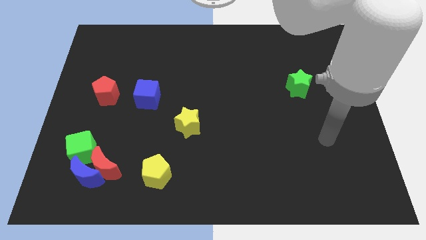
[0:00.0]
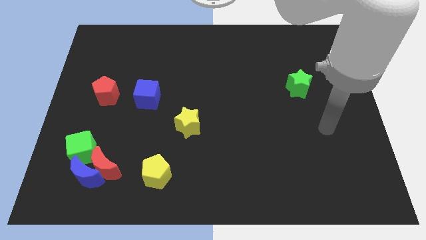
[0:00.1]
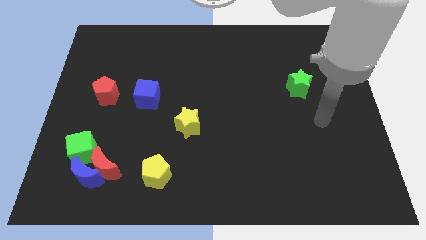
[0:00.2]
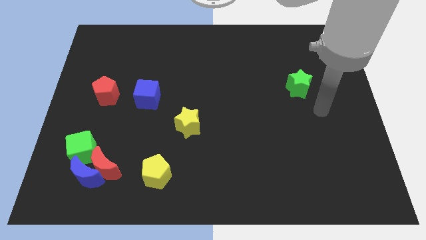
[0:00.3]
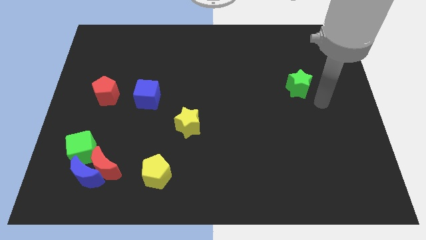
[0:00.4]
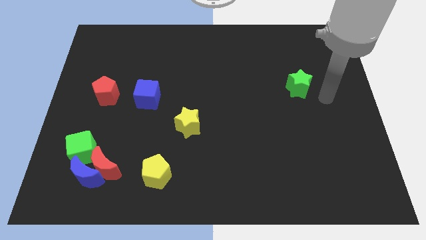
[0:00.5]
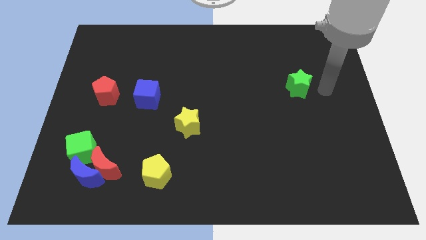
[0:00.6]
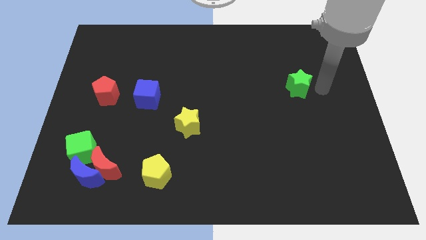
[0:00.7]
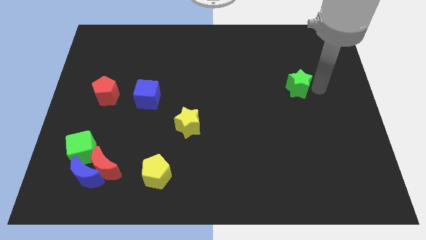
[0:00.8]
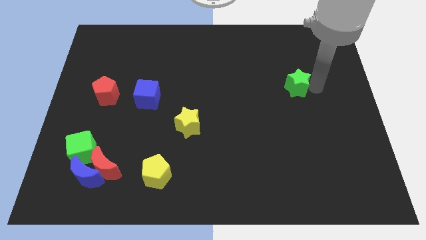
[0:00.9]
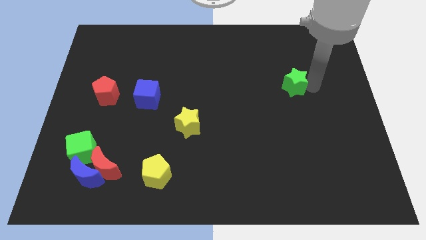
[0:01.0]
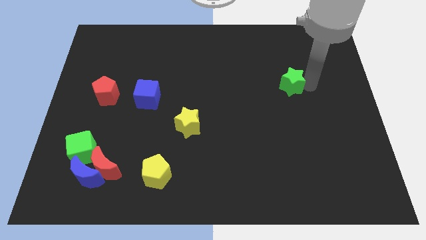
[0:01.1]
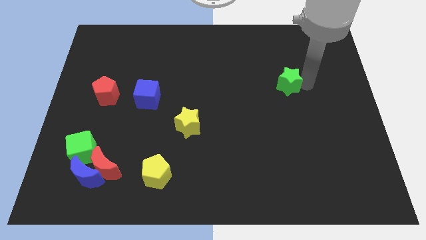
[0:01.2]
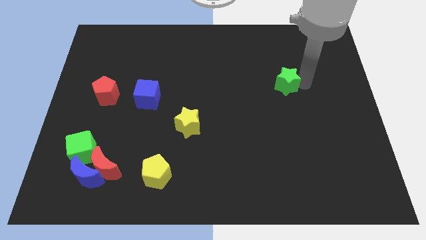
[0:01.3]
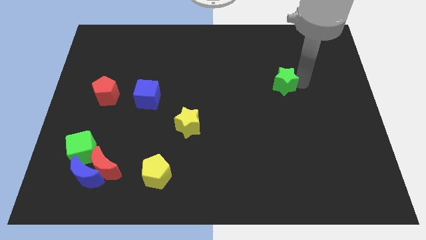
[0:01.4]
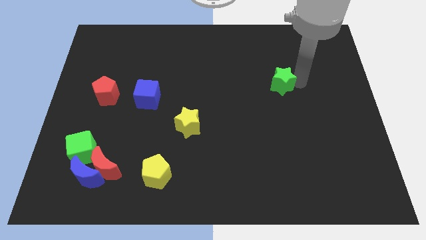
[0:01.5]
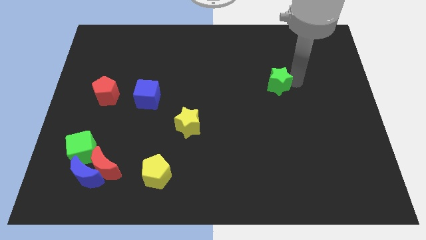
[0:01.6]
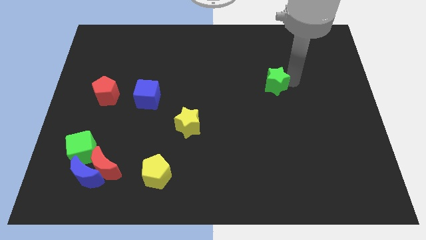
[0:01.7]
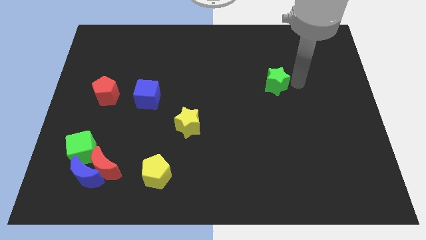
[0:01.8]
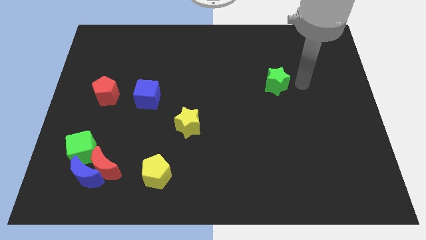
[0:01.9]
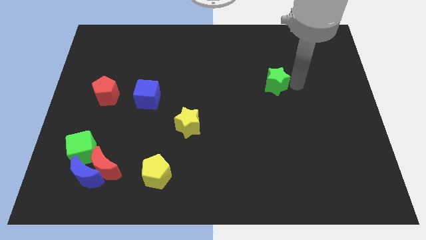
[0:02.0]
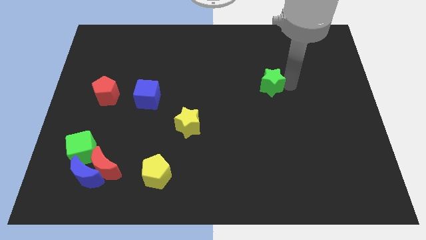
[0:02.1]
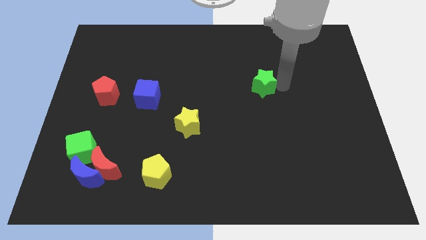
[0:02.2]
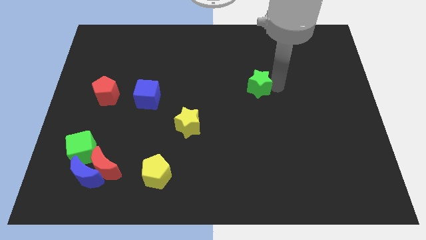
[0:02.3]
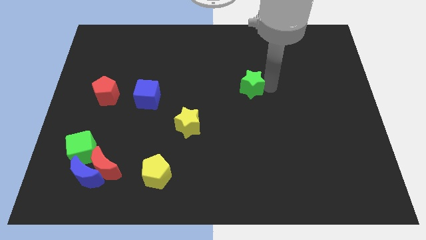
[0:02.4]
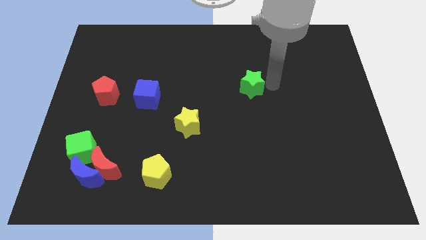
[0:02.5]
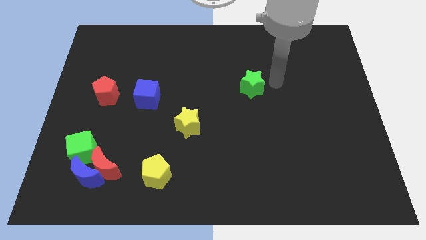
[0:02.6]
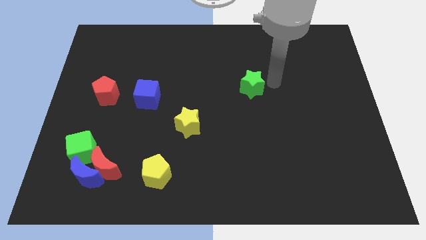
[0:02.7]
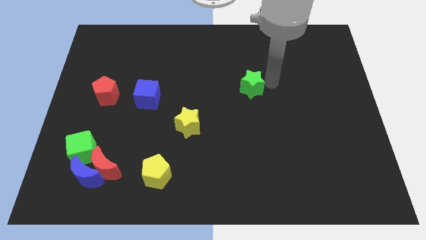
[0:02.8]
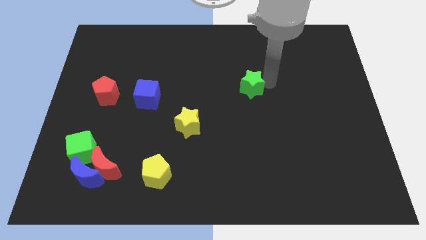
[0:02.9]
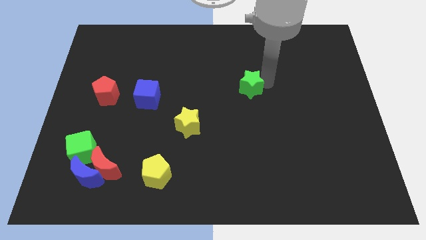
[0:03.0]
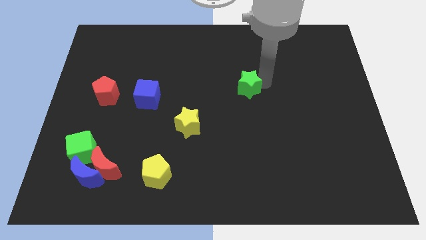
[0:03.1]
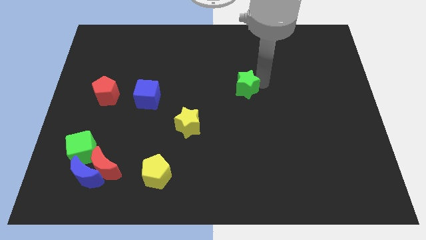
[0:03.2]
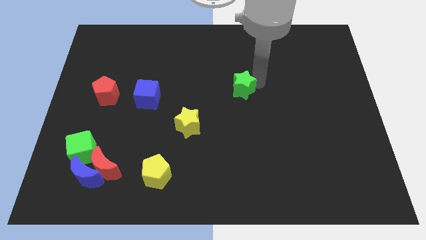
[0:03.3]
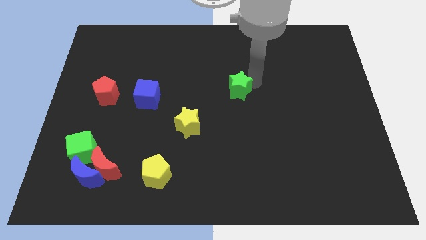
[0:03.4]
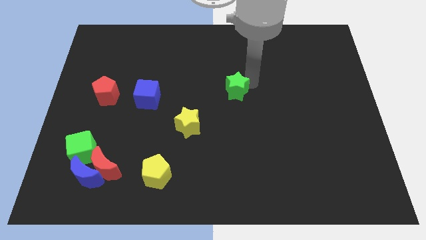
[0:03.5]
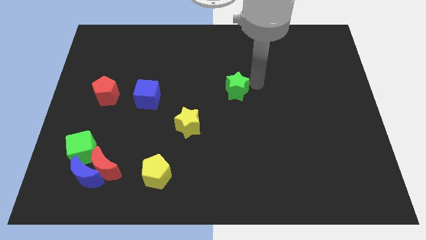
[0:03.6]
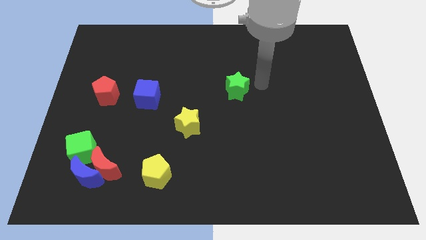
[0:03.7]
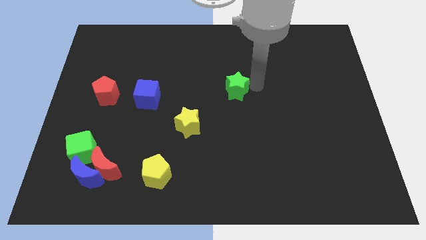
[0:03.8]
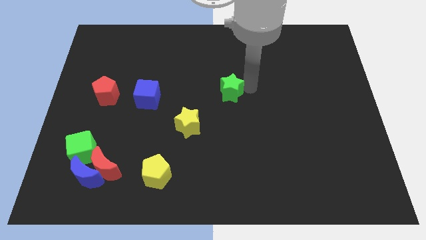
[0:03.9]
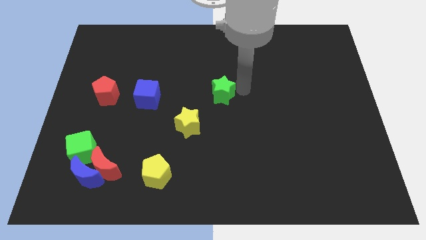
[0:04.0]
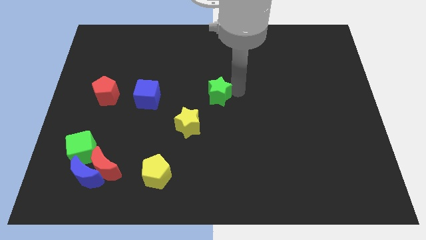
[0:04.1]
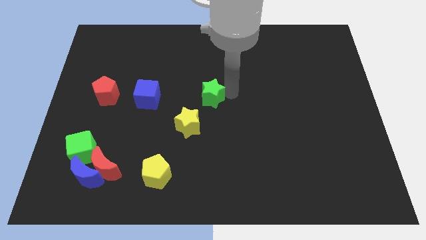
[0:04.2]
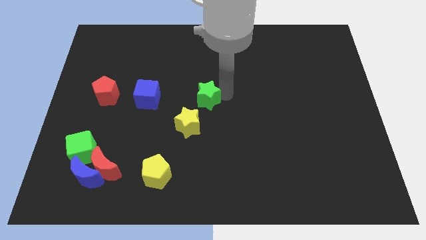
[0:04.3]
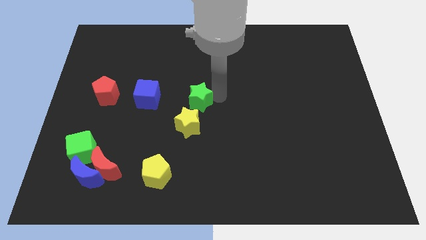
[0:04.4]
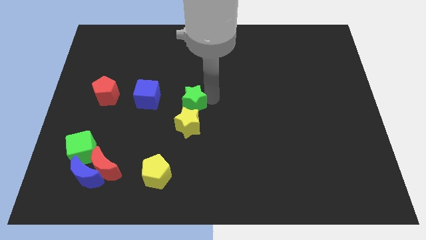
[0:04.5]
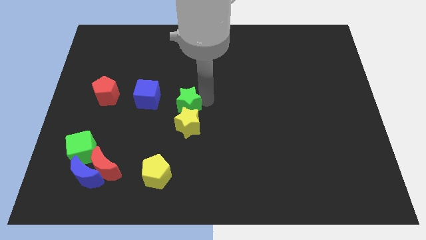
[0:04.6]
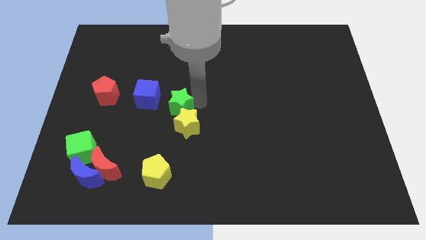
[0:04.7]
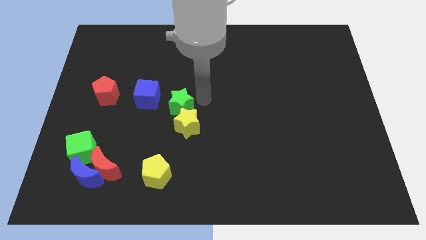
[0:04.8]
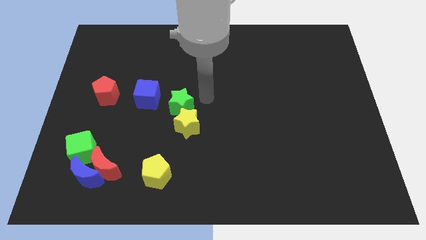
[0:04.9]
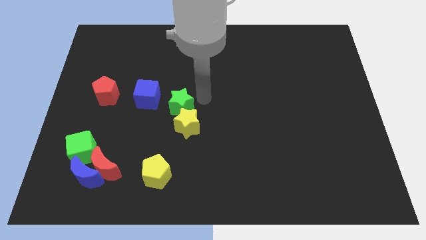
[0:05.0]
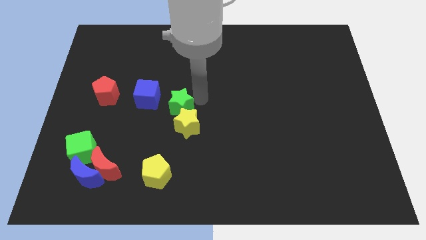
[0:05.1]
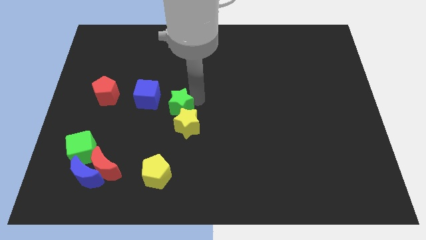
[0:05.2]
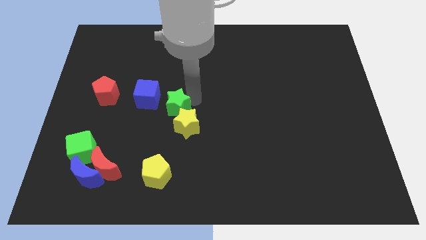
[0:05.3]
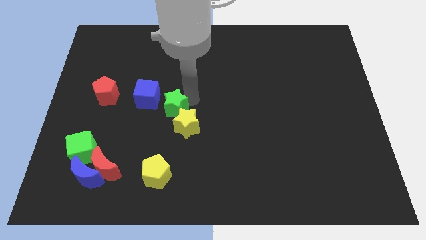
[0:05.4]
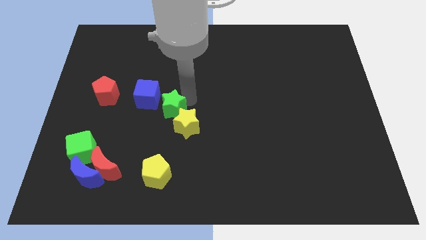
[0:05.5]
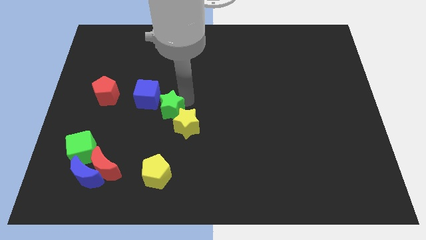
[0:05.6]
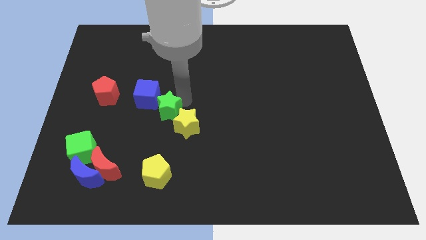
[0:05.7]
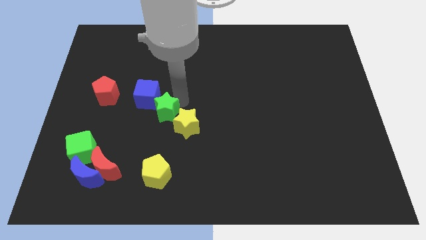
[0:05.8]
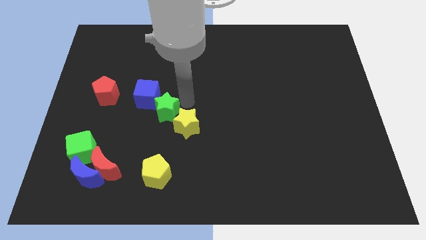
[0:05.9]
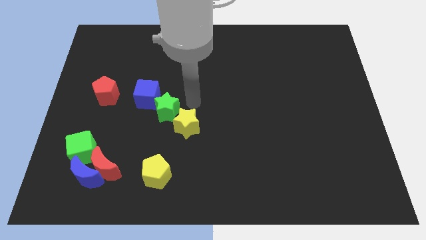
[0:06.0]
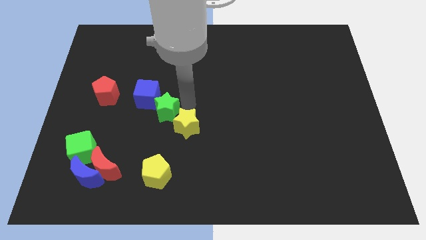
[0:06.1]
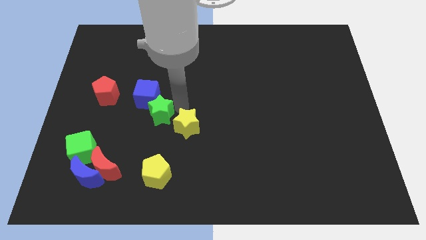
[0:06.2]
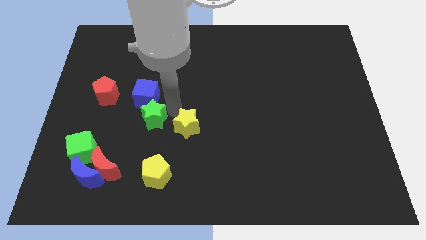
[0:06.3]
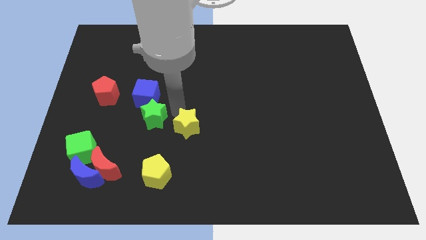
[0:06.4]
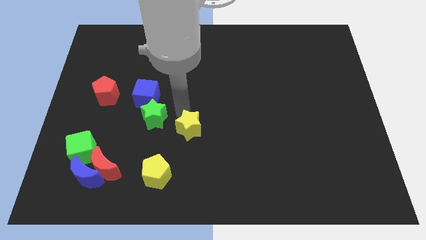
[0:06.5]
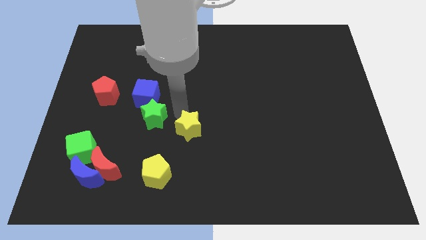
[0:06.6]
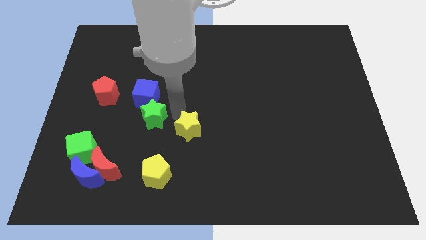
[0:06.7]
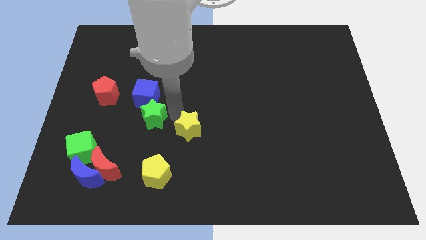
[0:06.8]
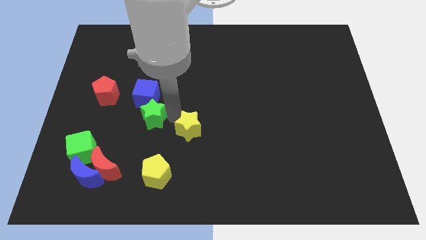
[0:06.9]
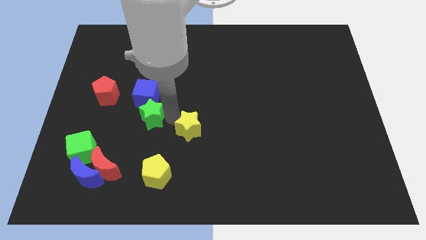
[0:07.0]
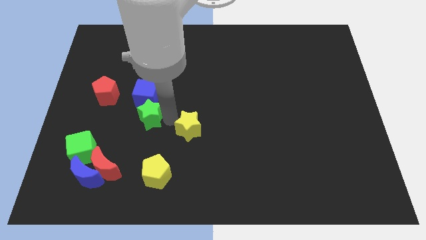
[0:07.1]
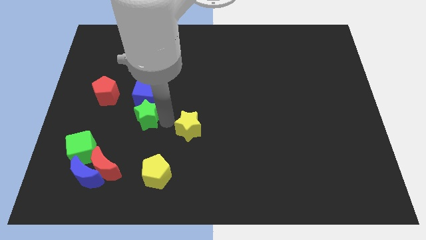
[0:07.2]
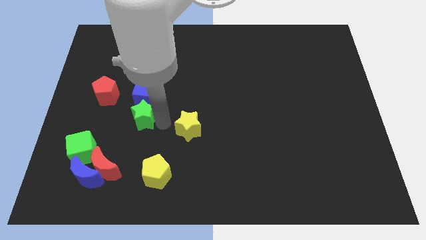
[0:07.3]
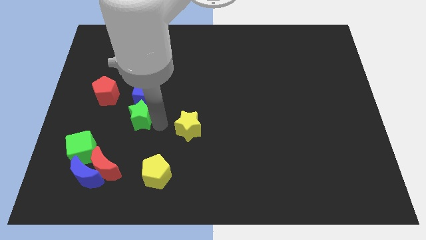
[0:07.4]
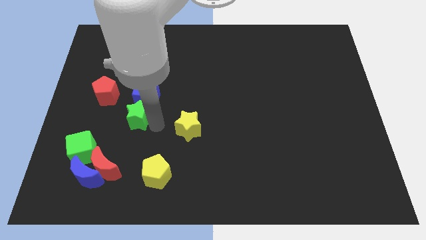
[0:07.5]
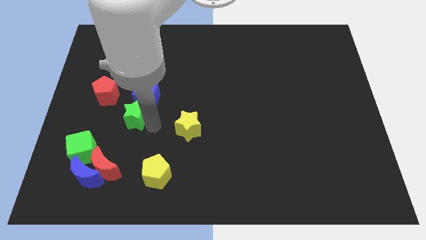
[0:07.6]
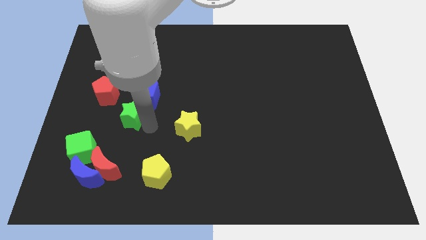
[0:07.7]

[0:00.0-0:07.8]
move the green star above the red moon

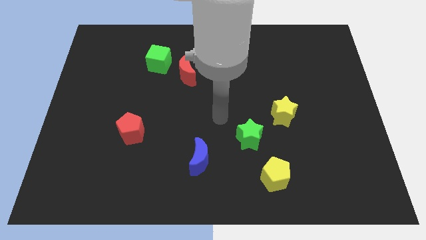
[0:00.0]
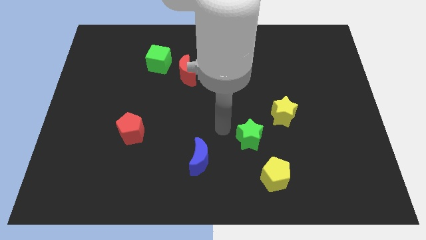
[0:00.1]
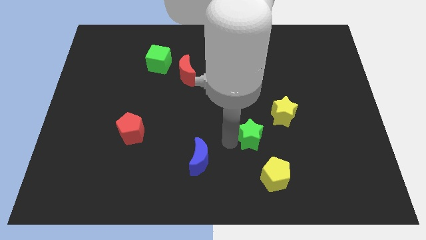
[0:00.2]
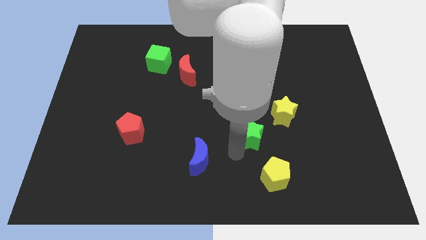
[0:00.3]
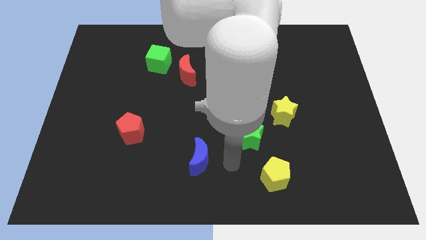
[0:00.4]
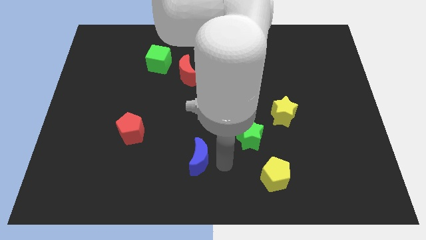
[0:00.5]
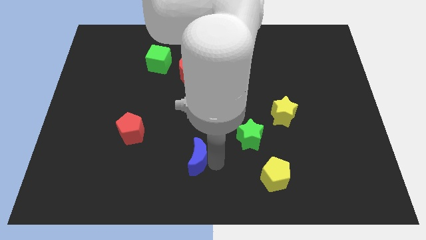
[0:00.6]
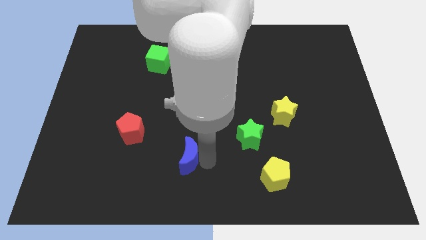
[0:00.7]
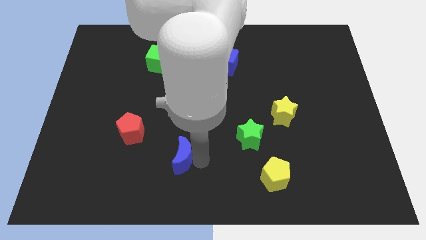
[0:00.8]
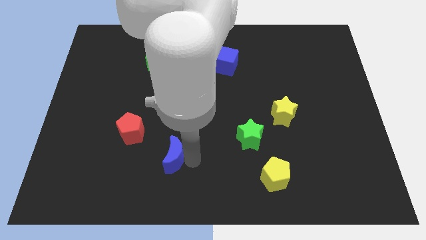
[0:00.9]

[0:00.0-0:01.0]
move the blue moon to the bottom right side of the red pentagon
